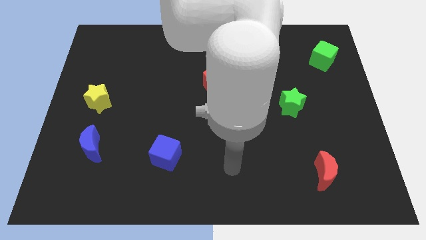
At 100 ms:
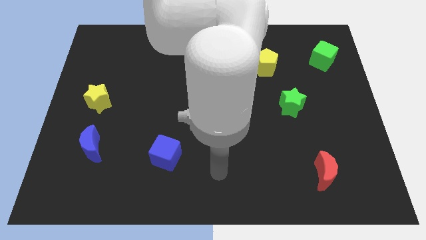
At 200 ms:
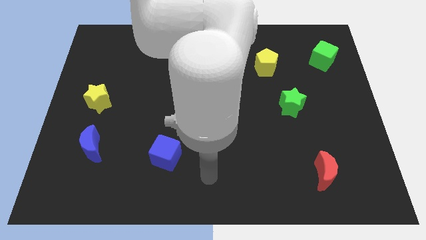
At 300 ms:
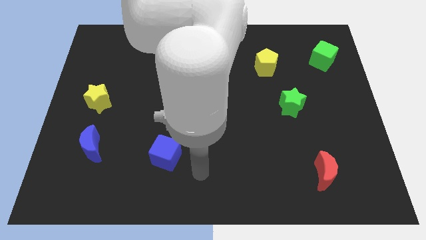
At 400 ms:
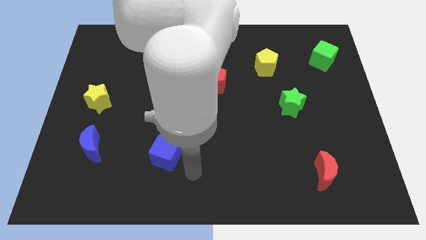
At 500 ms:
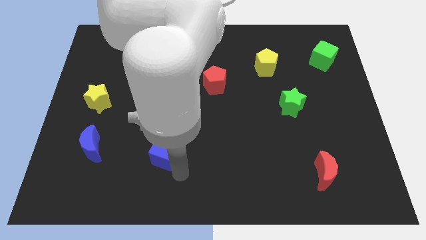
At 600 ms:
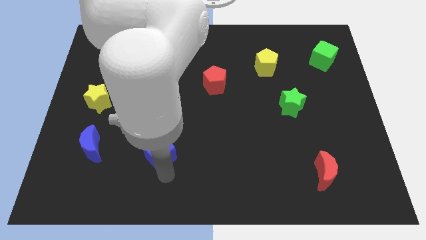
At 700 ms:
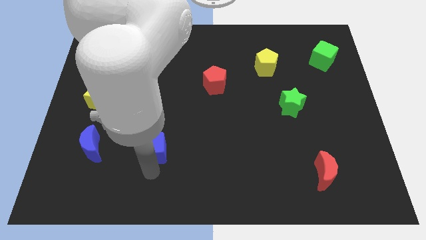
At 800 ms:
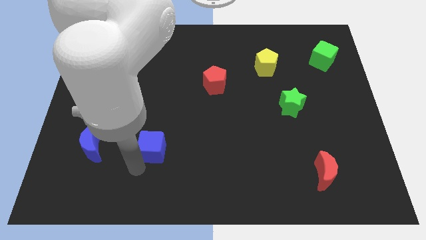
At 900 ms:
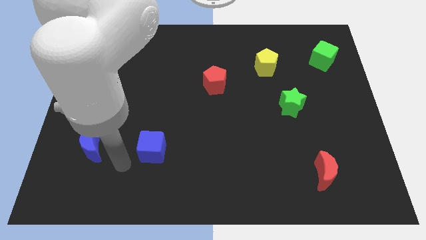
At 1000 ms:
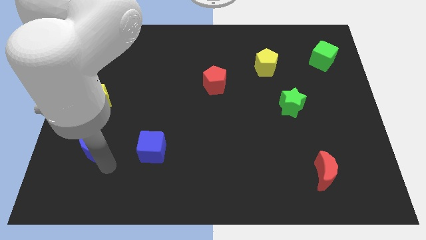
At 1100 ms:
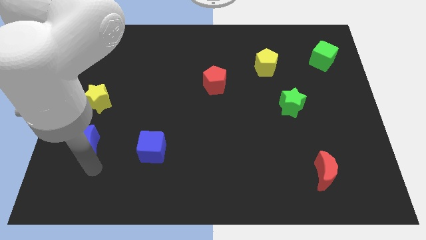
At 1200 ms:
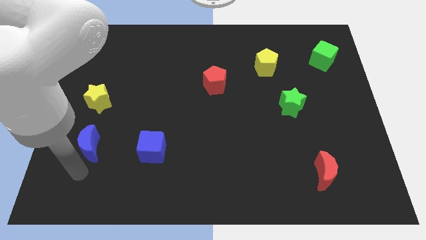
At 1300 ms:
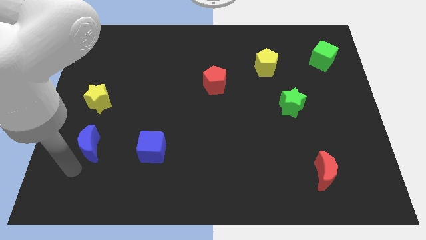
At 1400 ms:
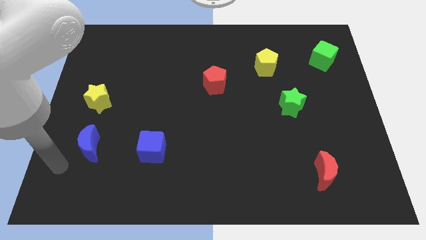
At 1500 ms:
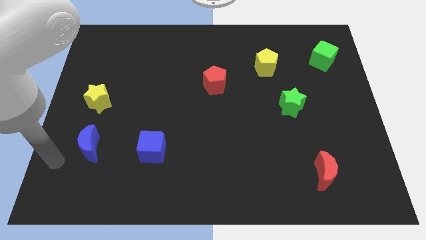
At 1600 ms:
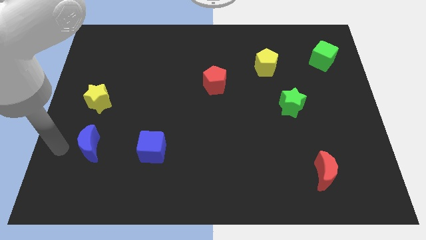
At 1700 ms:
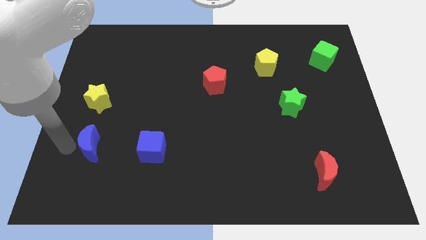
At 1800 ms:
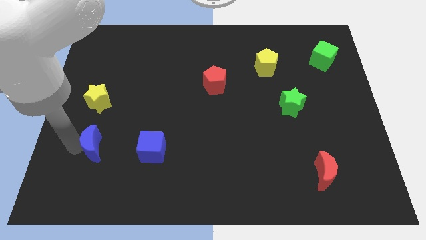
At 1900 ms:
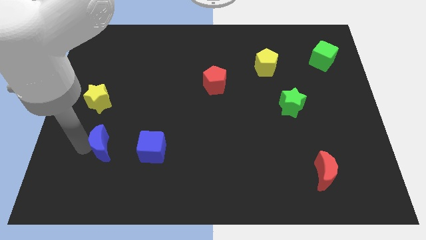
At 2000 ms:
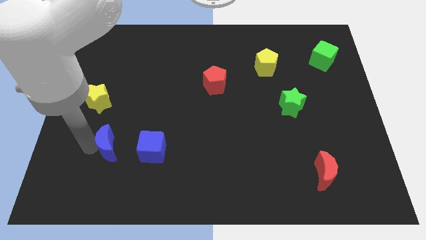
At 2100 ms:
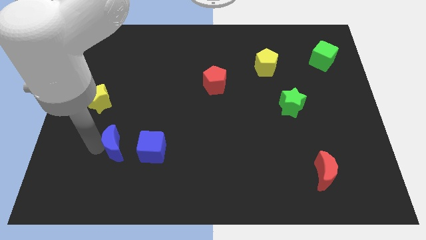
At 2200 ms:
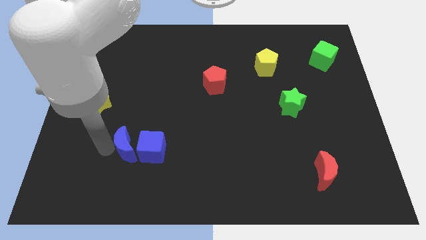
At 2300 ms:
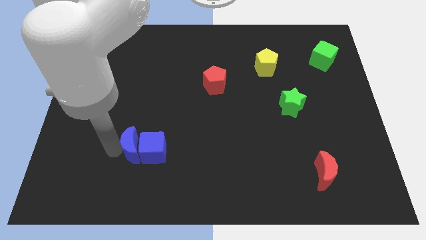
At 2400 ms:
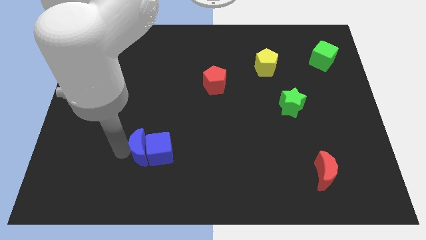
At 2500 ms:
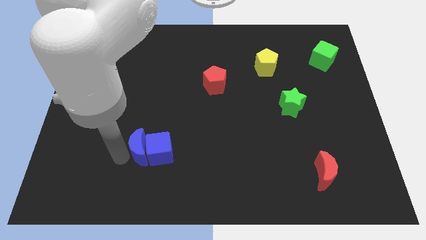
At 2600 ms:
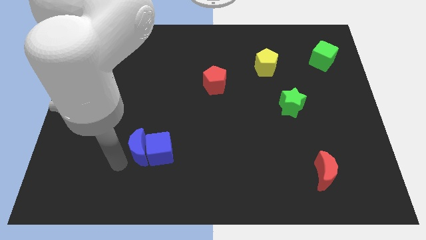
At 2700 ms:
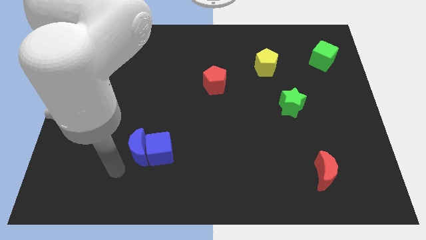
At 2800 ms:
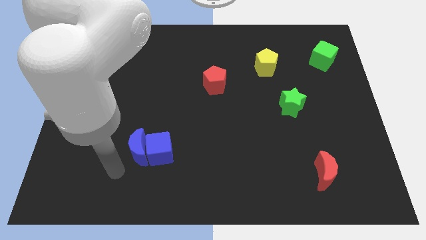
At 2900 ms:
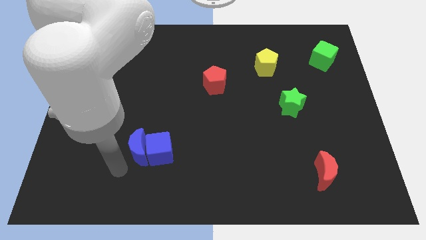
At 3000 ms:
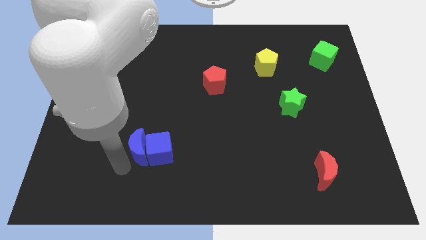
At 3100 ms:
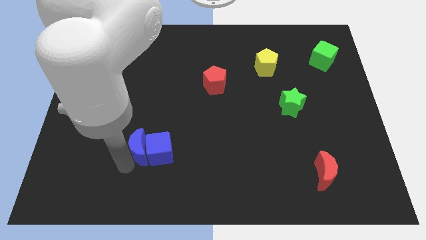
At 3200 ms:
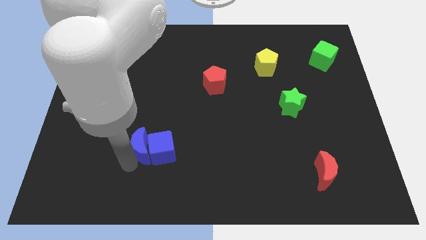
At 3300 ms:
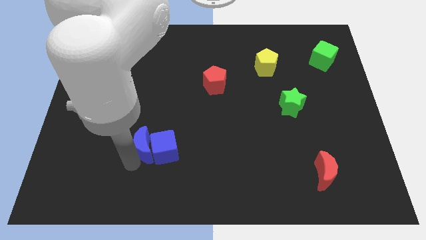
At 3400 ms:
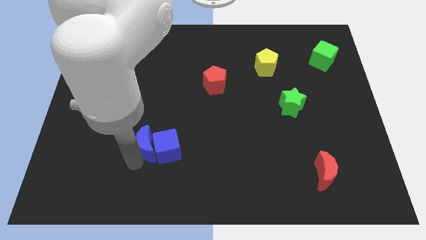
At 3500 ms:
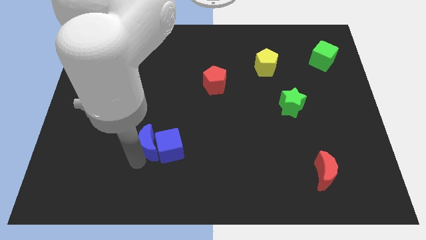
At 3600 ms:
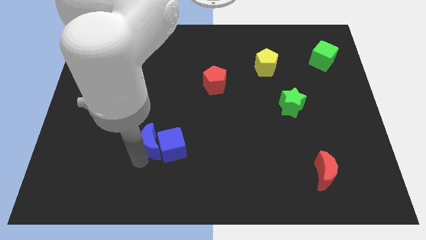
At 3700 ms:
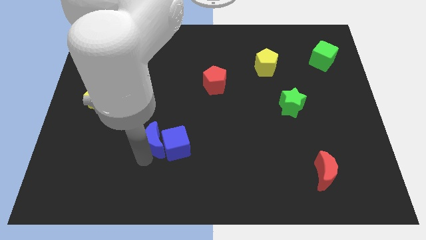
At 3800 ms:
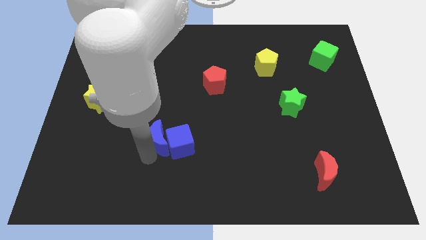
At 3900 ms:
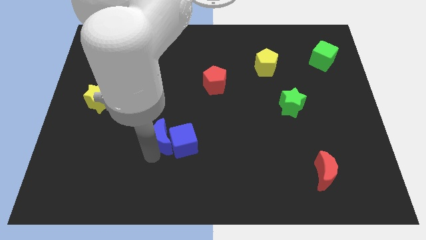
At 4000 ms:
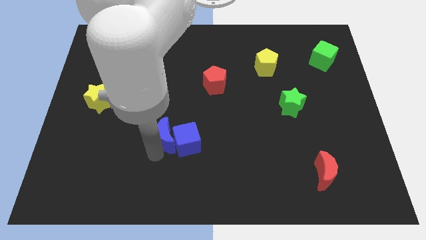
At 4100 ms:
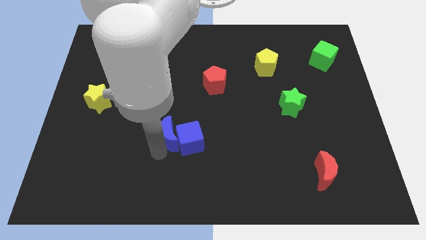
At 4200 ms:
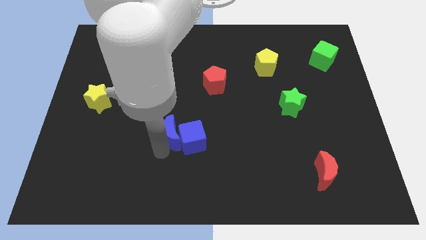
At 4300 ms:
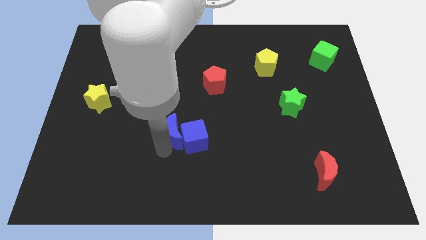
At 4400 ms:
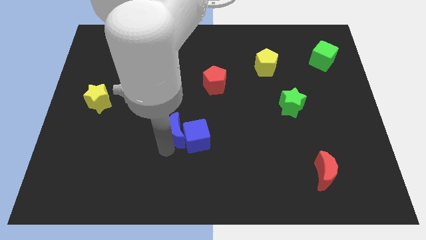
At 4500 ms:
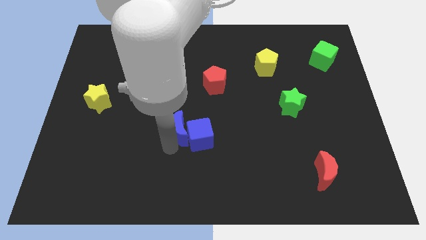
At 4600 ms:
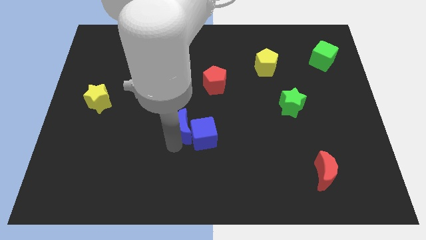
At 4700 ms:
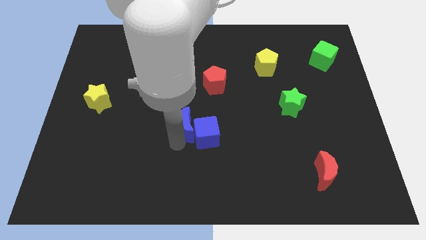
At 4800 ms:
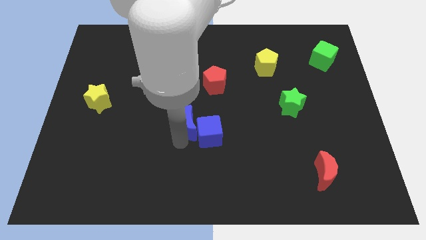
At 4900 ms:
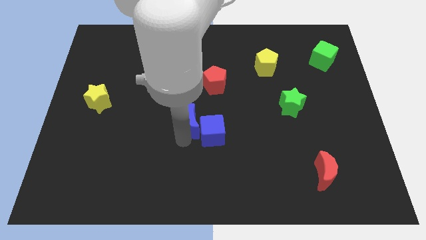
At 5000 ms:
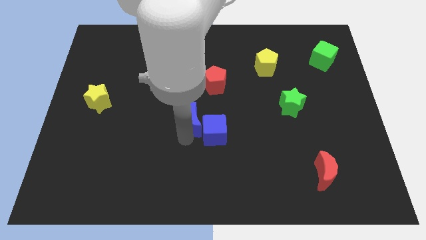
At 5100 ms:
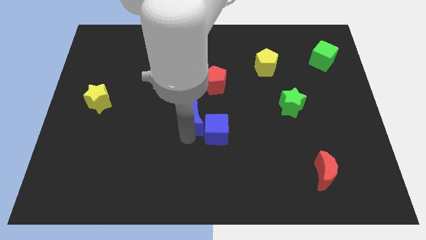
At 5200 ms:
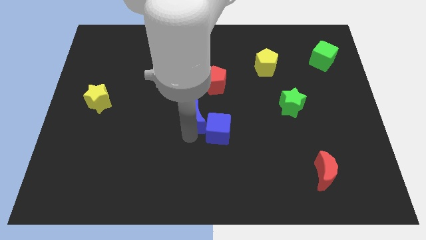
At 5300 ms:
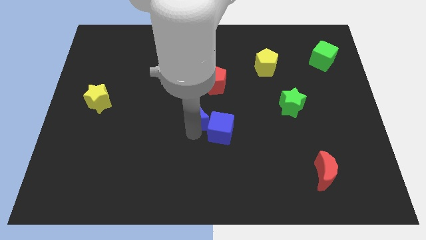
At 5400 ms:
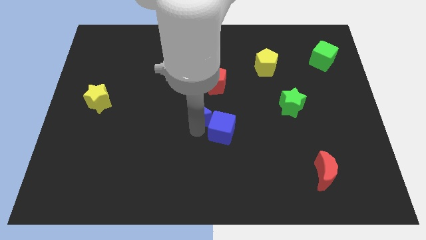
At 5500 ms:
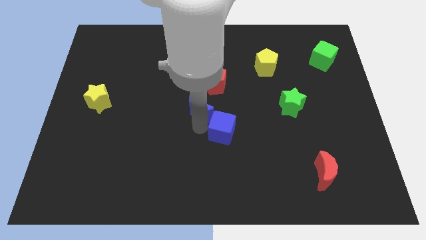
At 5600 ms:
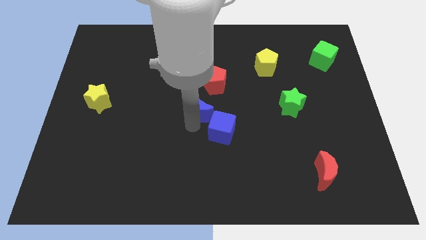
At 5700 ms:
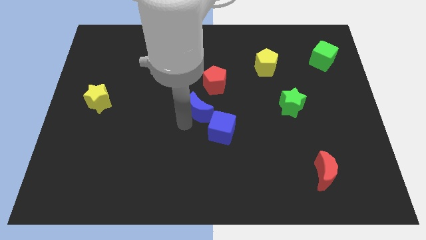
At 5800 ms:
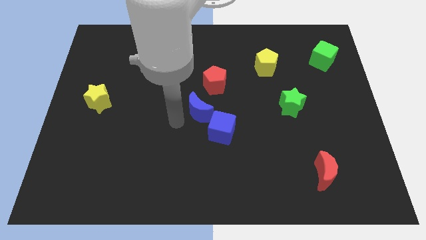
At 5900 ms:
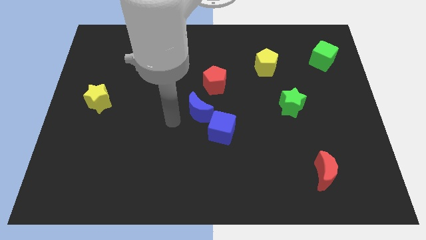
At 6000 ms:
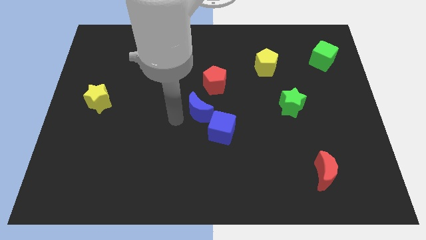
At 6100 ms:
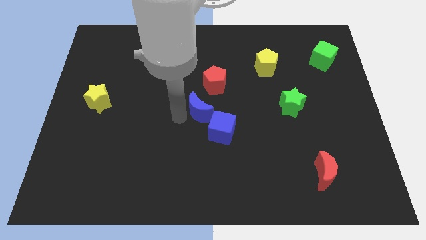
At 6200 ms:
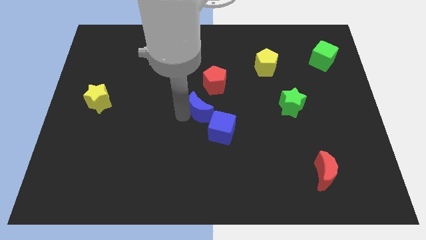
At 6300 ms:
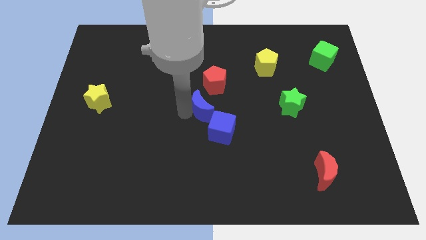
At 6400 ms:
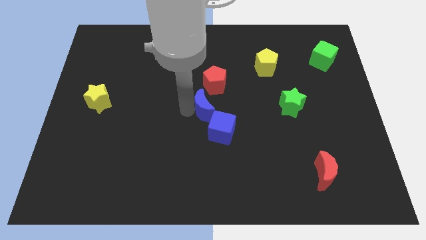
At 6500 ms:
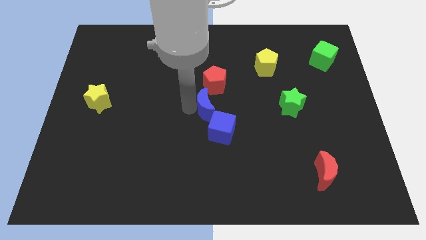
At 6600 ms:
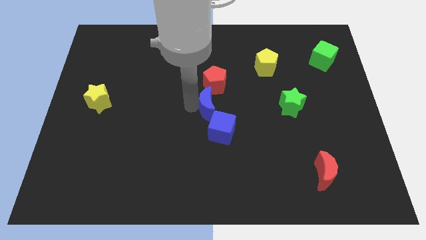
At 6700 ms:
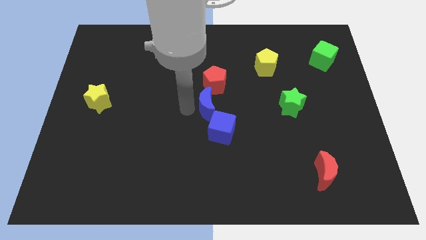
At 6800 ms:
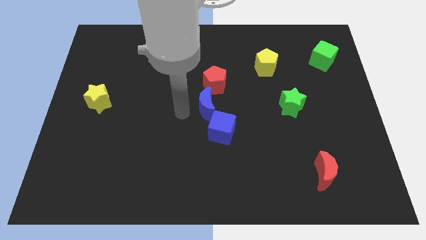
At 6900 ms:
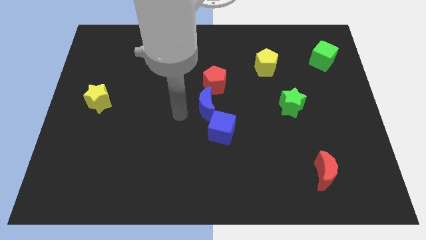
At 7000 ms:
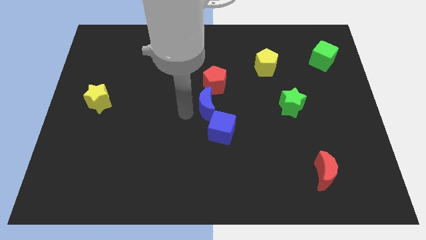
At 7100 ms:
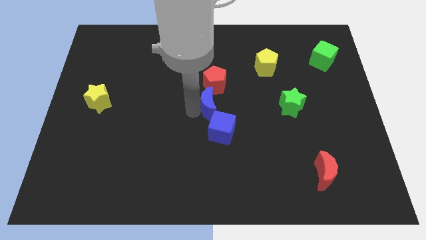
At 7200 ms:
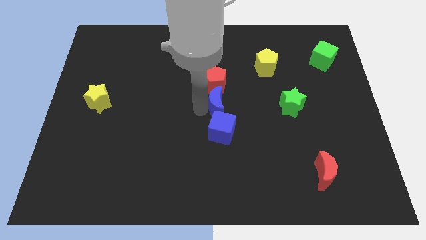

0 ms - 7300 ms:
put the blue moon diagonally down and to the right of the red pentagon
